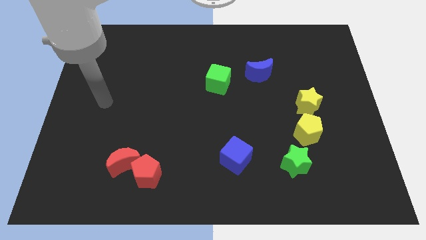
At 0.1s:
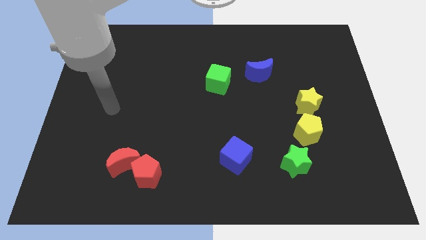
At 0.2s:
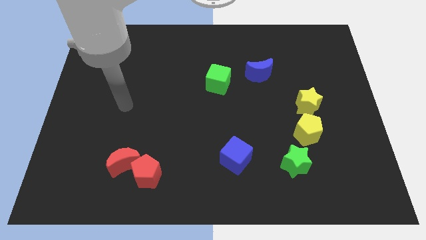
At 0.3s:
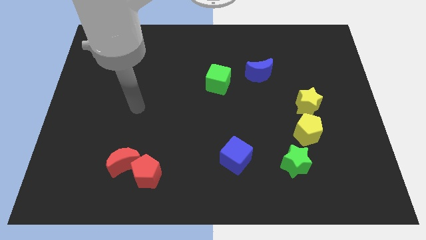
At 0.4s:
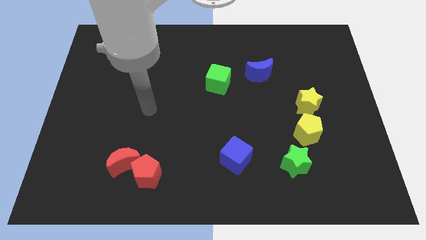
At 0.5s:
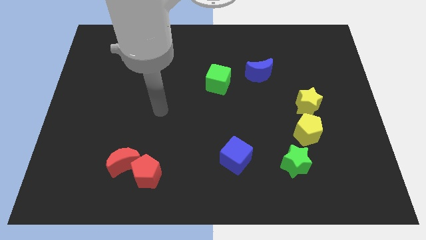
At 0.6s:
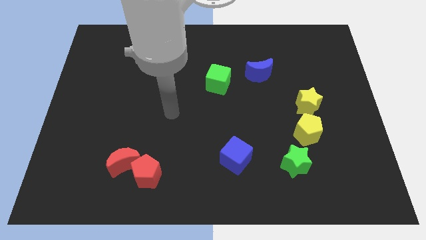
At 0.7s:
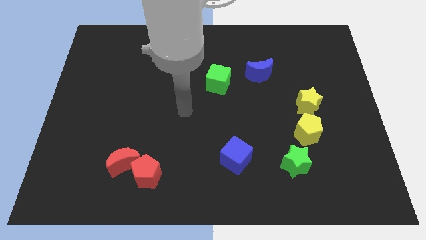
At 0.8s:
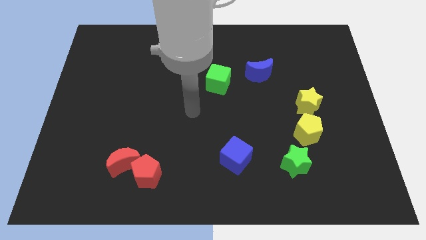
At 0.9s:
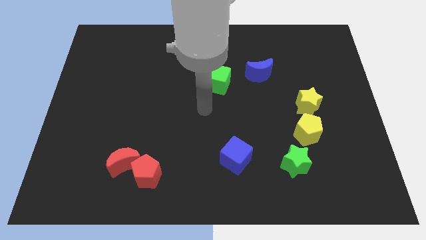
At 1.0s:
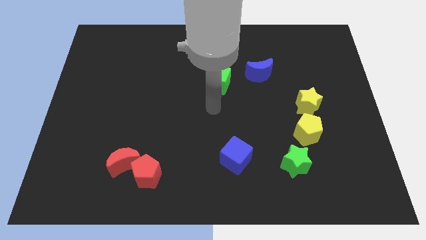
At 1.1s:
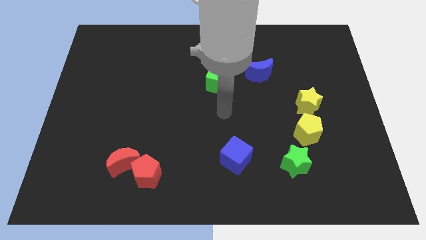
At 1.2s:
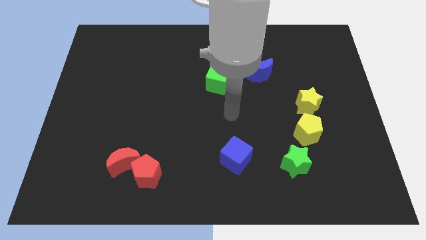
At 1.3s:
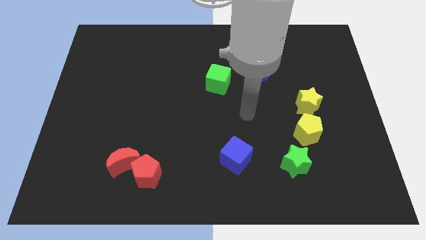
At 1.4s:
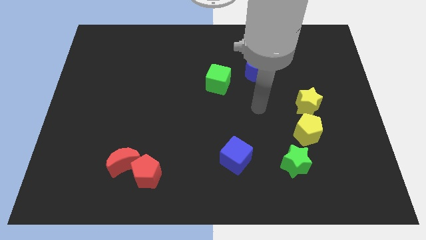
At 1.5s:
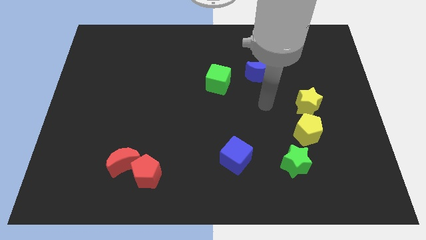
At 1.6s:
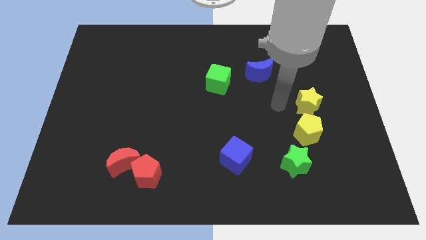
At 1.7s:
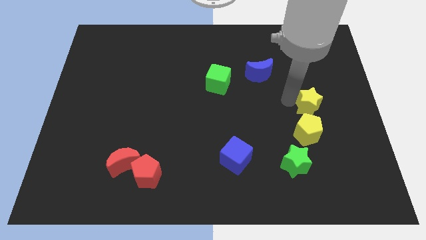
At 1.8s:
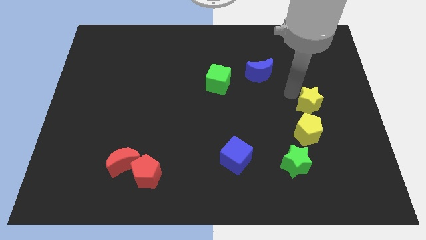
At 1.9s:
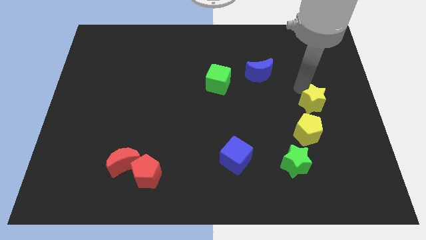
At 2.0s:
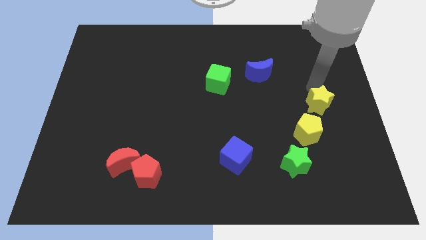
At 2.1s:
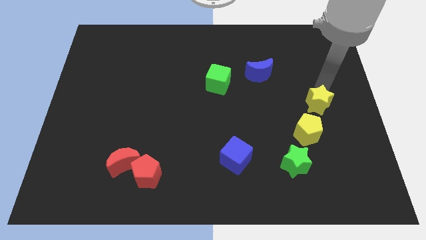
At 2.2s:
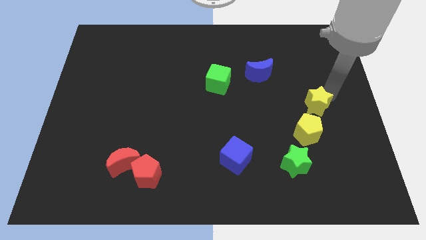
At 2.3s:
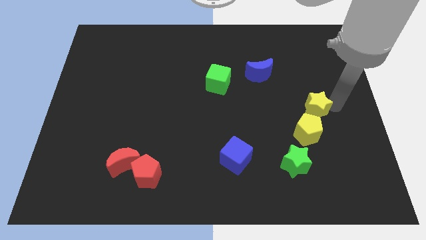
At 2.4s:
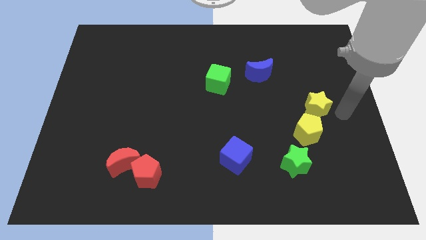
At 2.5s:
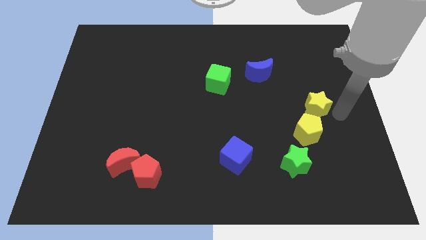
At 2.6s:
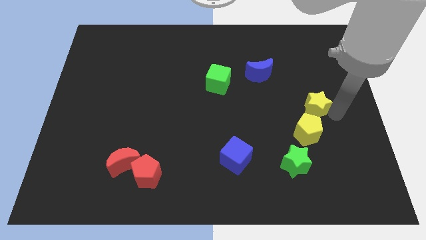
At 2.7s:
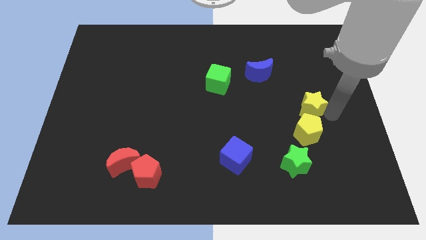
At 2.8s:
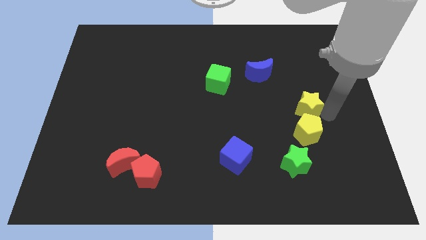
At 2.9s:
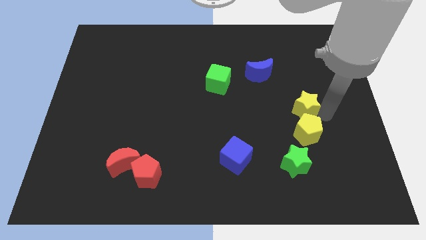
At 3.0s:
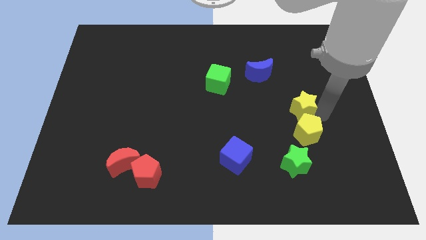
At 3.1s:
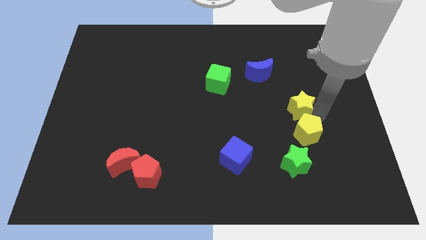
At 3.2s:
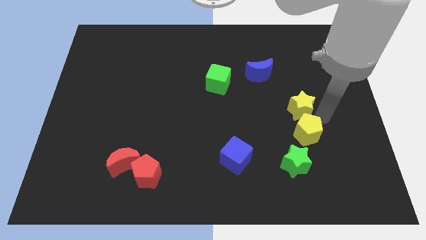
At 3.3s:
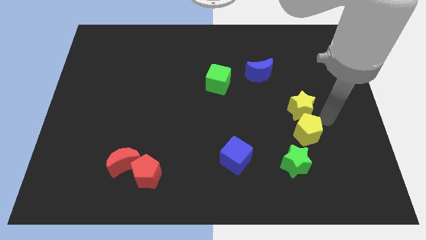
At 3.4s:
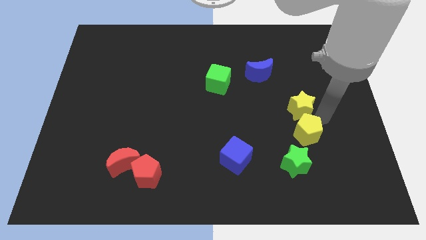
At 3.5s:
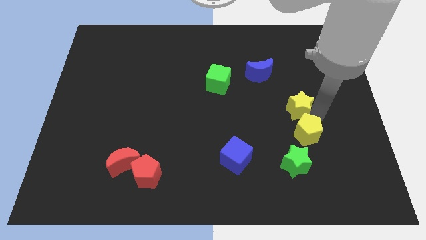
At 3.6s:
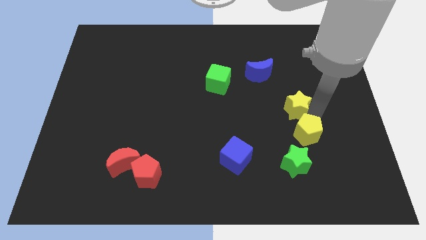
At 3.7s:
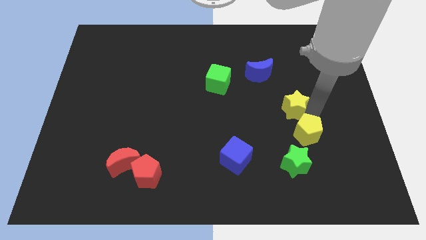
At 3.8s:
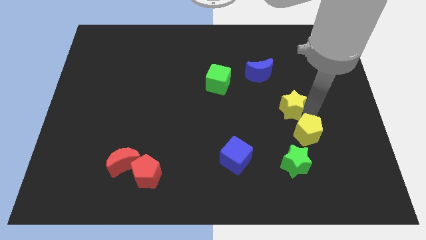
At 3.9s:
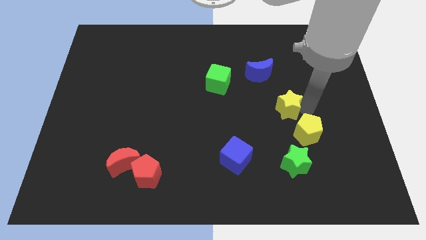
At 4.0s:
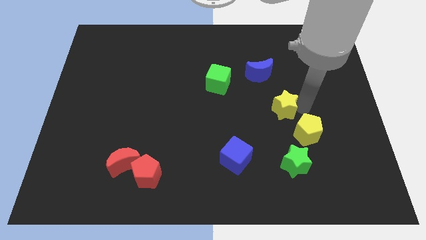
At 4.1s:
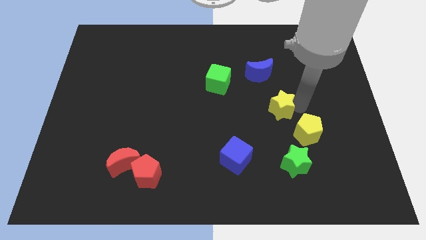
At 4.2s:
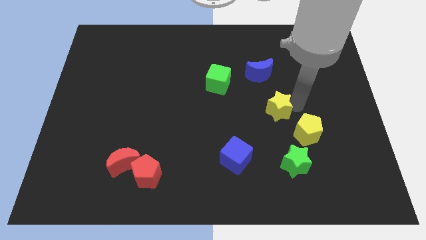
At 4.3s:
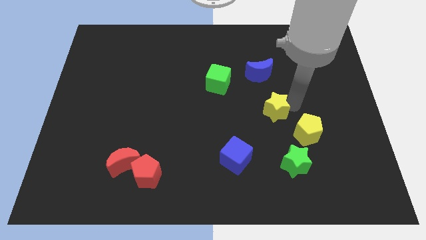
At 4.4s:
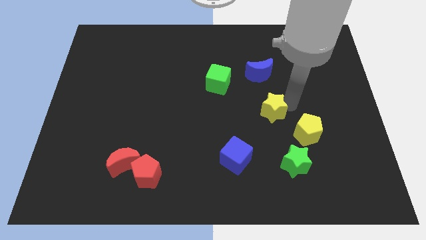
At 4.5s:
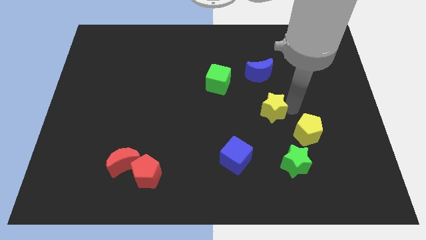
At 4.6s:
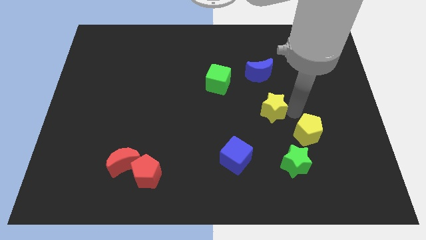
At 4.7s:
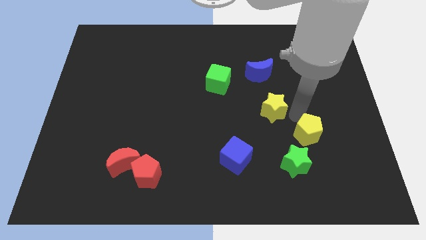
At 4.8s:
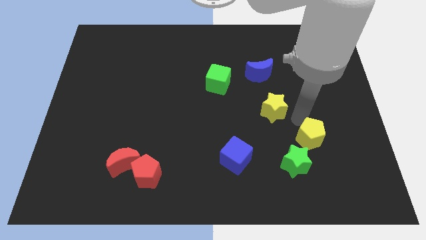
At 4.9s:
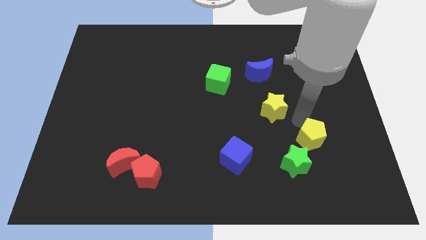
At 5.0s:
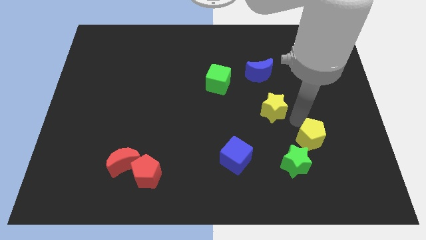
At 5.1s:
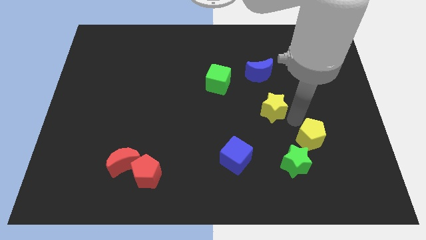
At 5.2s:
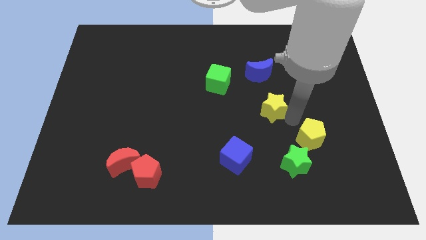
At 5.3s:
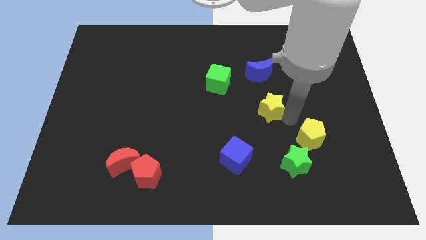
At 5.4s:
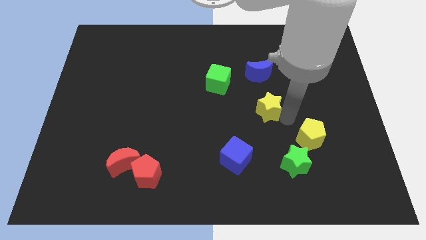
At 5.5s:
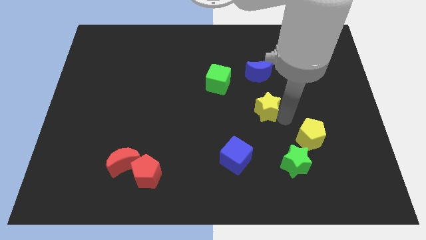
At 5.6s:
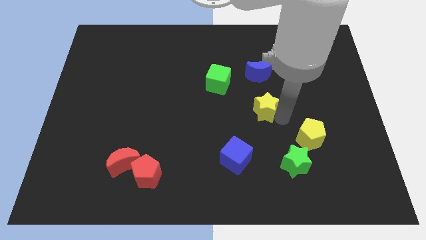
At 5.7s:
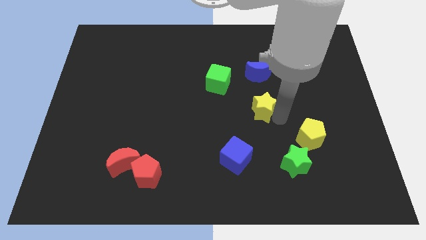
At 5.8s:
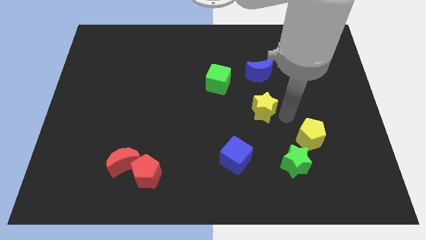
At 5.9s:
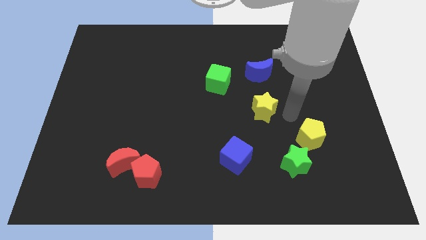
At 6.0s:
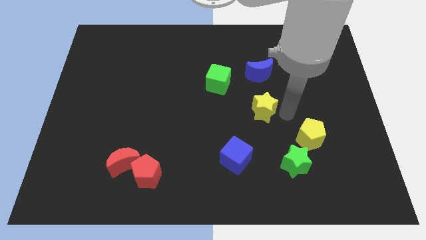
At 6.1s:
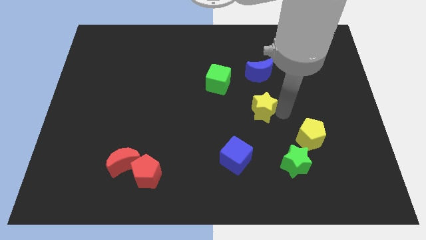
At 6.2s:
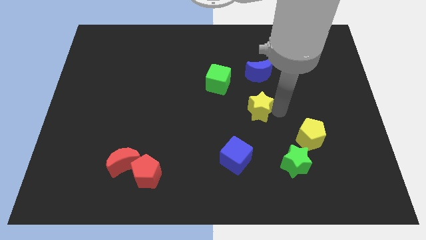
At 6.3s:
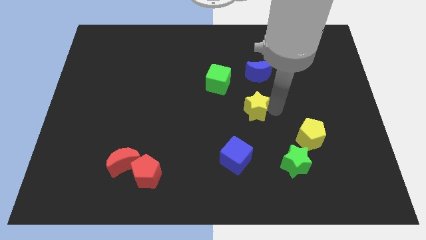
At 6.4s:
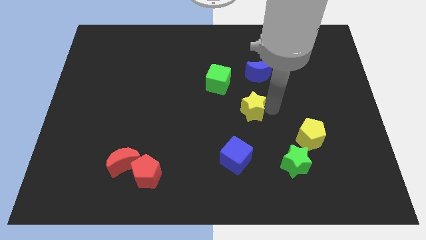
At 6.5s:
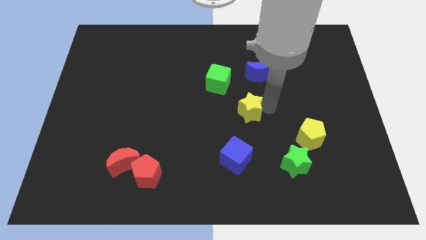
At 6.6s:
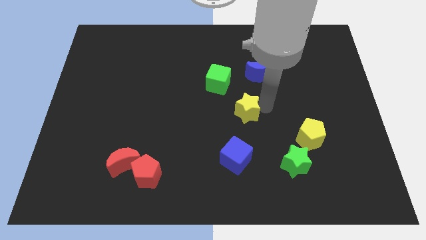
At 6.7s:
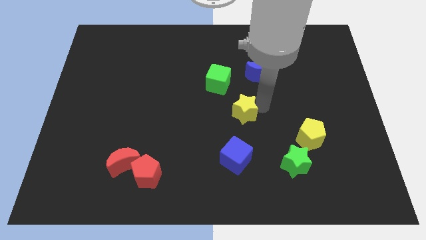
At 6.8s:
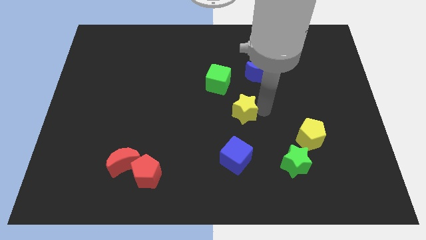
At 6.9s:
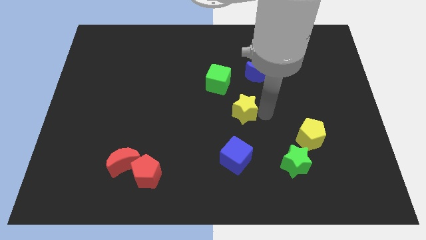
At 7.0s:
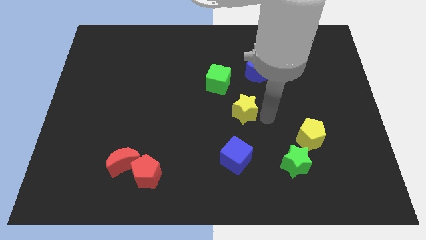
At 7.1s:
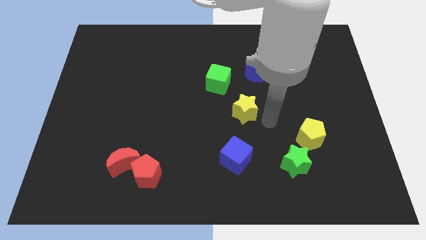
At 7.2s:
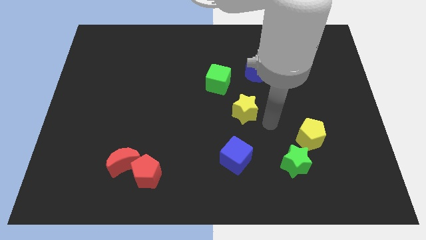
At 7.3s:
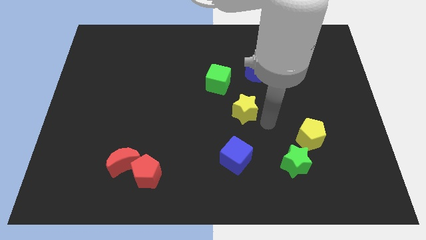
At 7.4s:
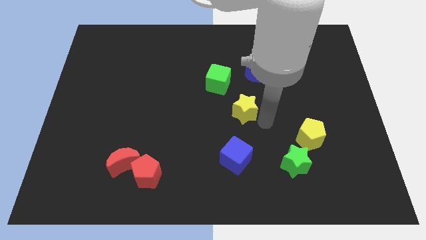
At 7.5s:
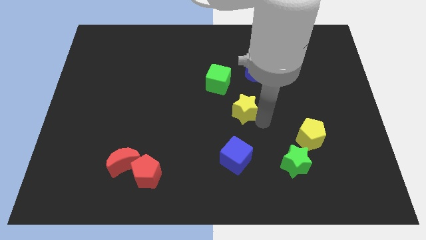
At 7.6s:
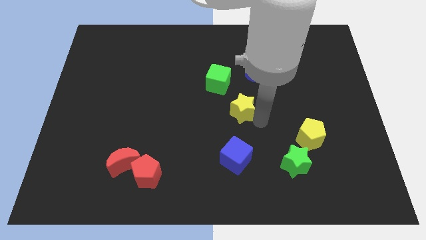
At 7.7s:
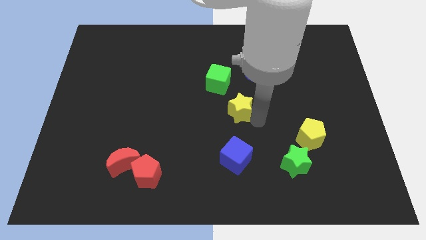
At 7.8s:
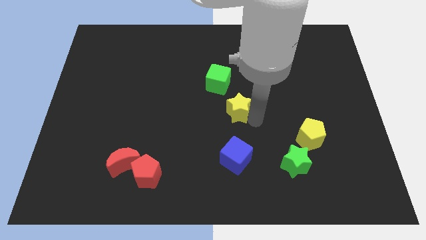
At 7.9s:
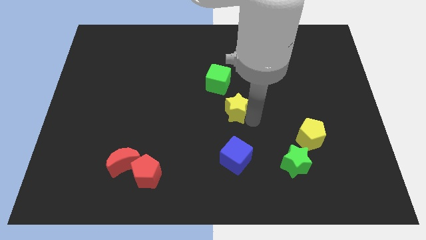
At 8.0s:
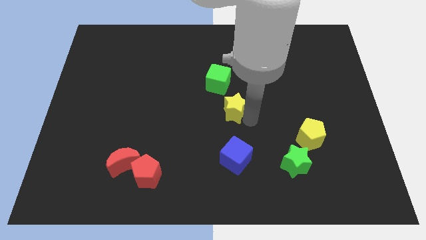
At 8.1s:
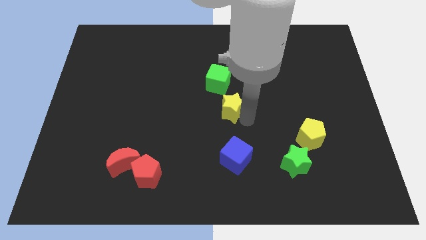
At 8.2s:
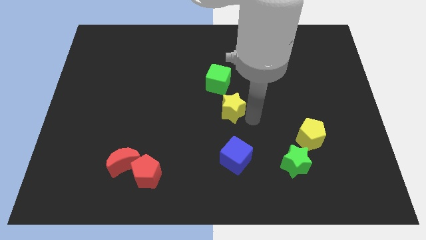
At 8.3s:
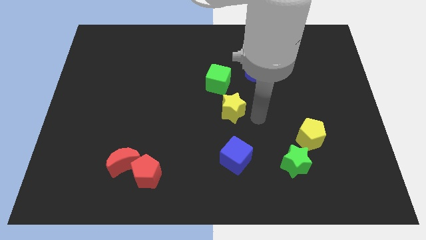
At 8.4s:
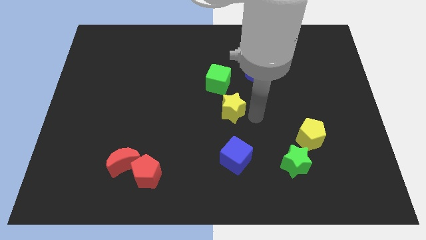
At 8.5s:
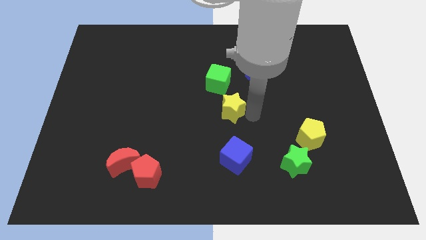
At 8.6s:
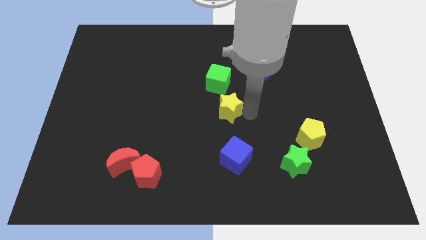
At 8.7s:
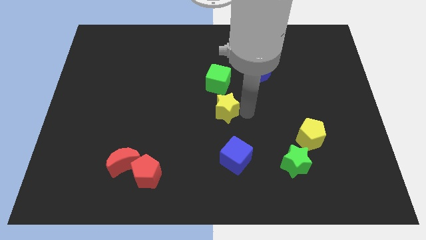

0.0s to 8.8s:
push the yellow star left
